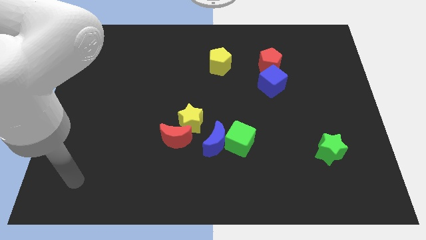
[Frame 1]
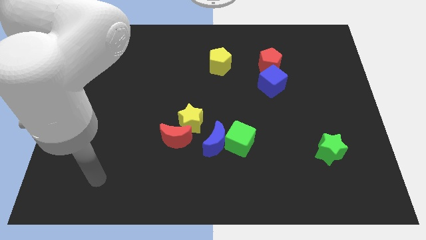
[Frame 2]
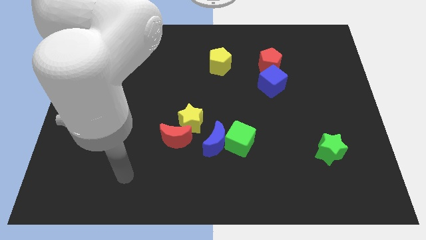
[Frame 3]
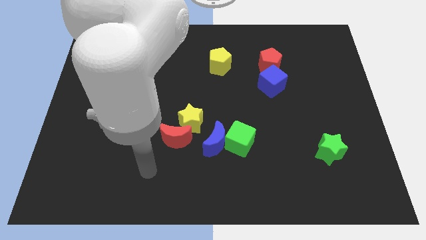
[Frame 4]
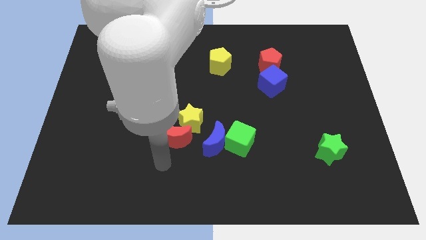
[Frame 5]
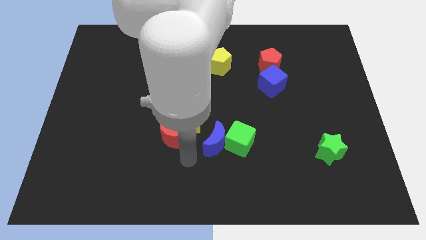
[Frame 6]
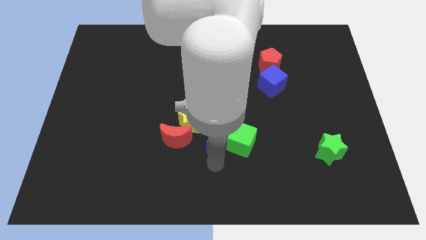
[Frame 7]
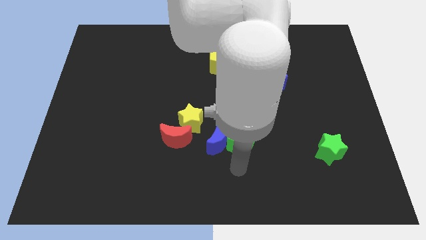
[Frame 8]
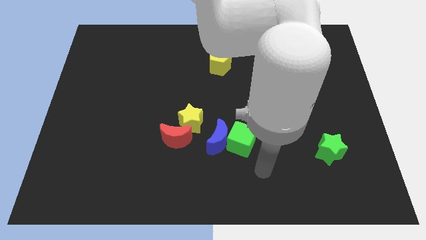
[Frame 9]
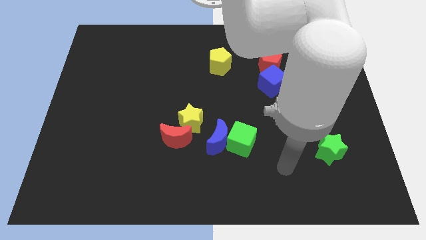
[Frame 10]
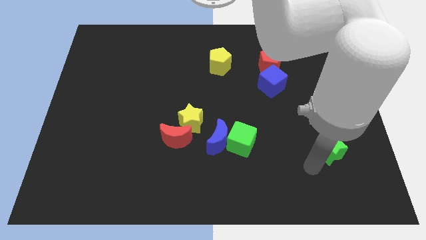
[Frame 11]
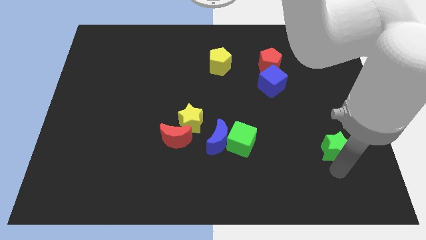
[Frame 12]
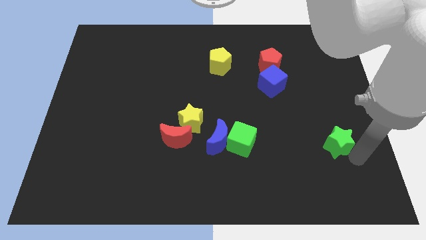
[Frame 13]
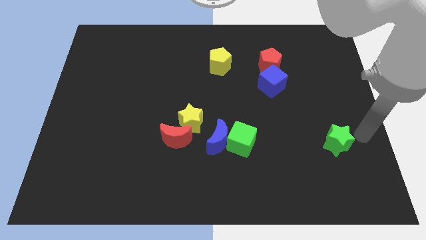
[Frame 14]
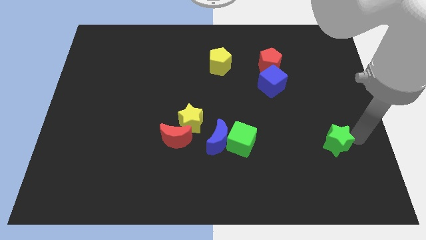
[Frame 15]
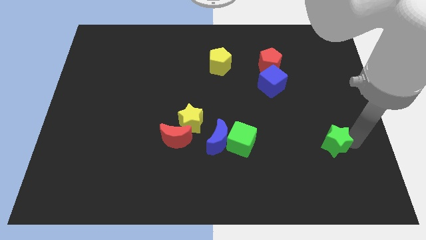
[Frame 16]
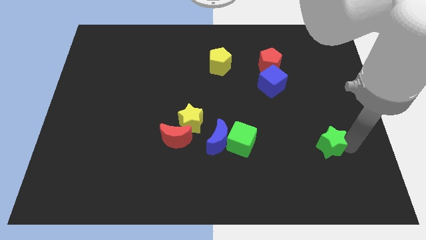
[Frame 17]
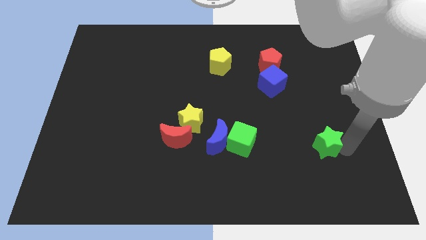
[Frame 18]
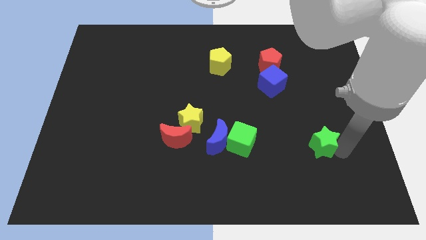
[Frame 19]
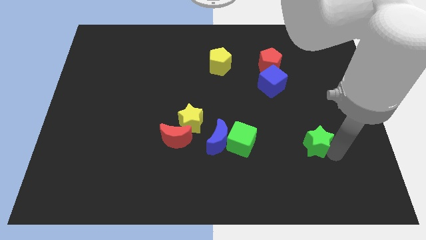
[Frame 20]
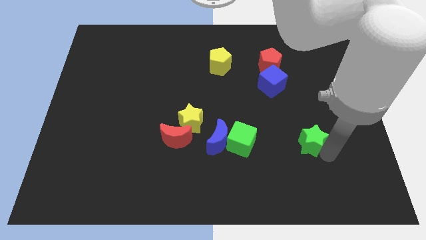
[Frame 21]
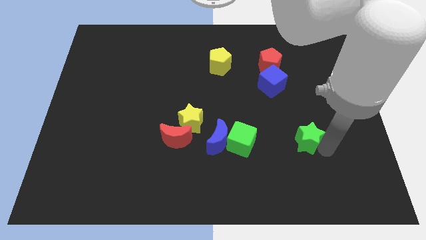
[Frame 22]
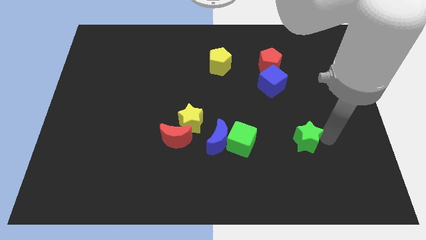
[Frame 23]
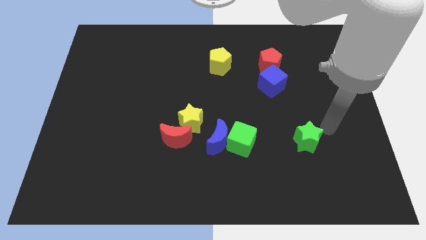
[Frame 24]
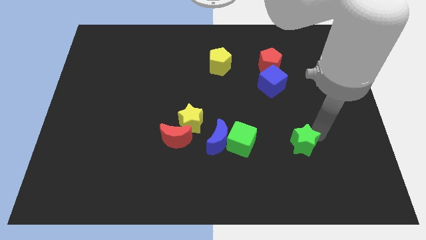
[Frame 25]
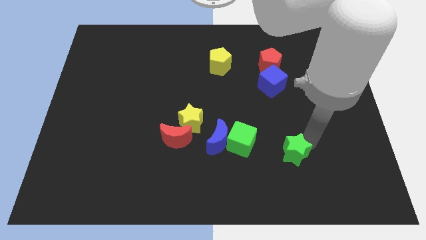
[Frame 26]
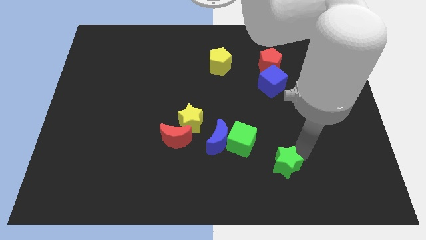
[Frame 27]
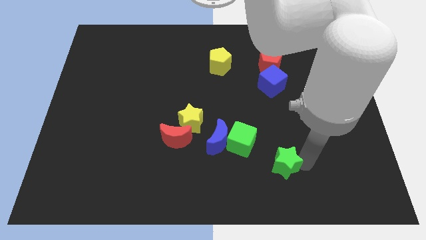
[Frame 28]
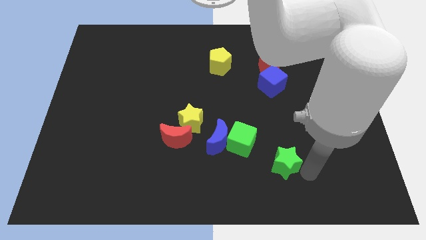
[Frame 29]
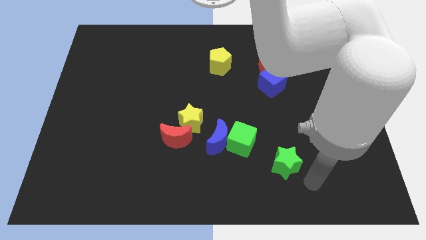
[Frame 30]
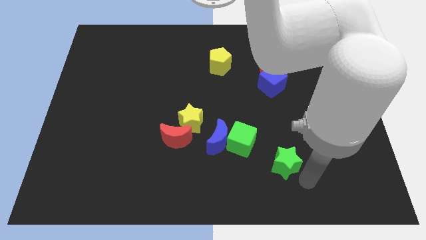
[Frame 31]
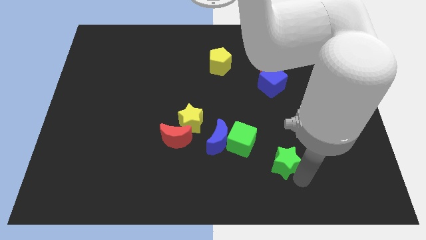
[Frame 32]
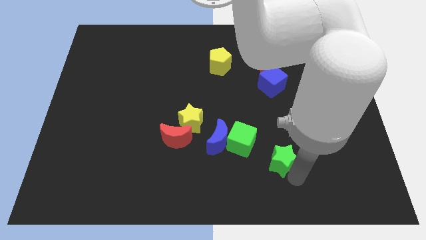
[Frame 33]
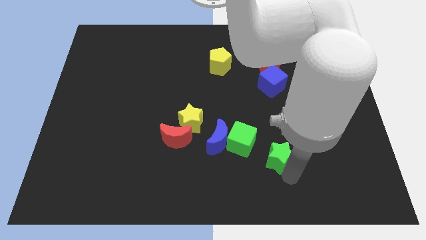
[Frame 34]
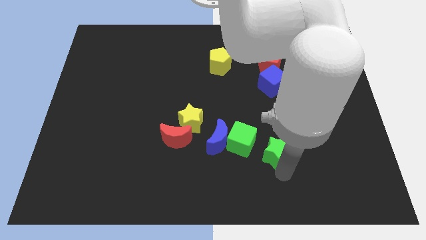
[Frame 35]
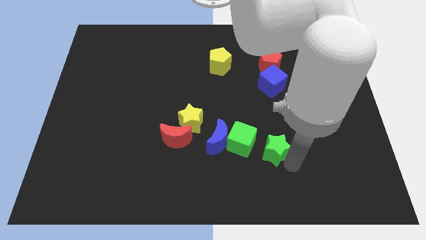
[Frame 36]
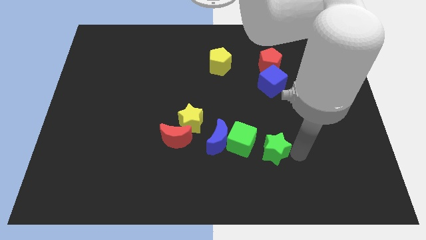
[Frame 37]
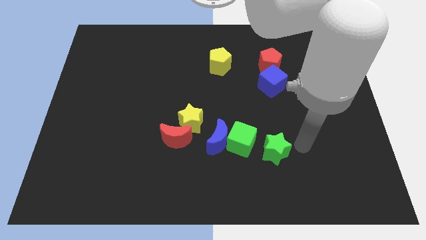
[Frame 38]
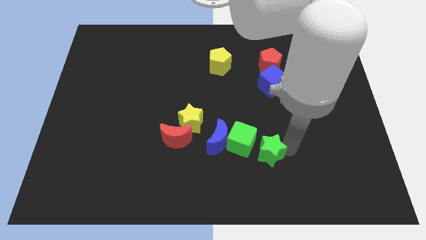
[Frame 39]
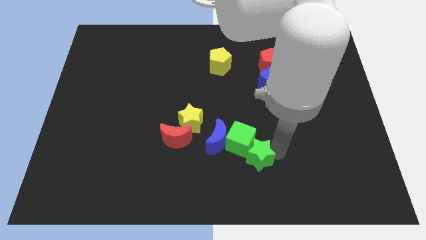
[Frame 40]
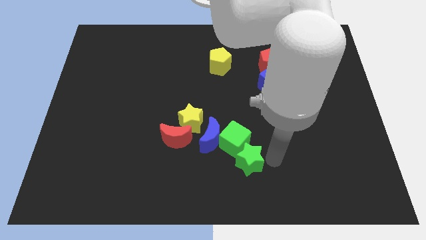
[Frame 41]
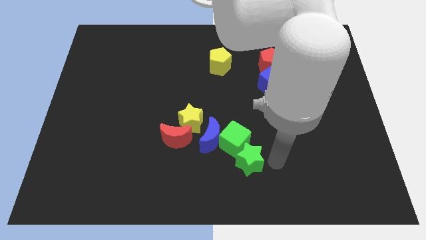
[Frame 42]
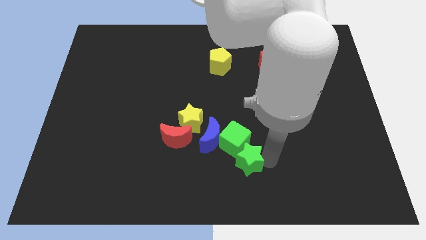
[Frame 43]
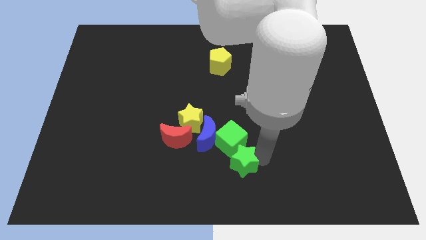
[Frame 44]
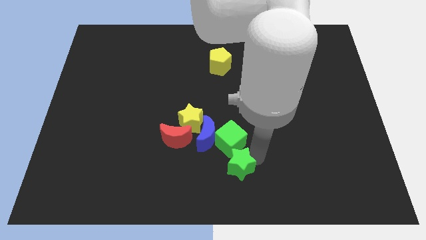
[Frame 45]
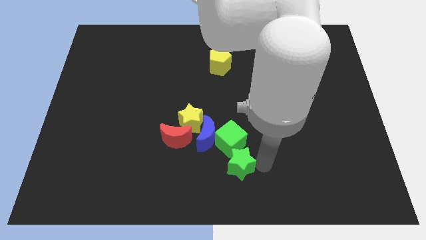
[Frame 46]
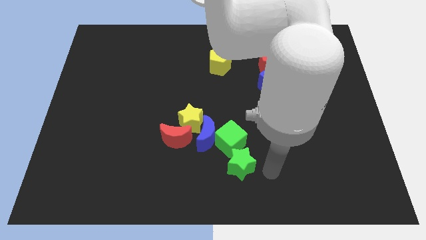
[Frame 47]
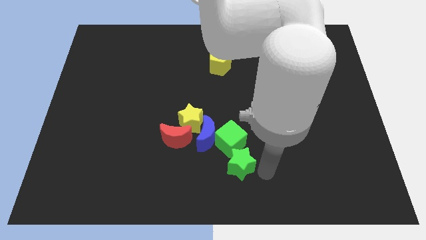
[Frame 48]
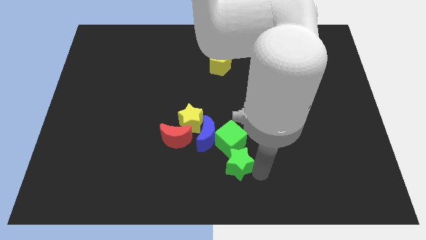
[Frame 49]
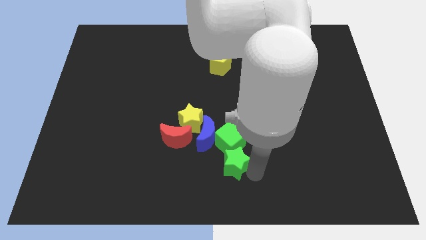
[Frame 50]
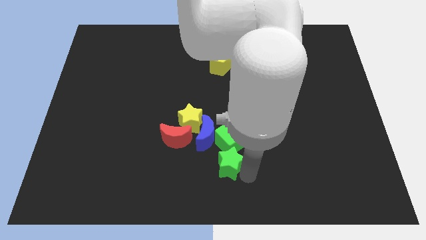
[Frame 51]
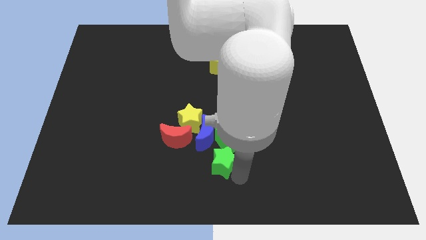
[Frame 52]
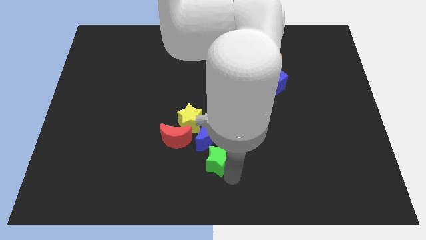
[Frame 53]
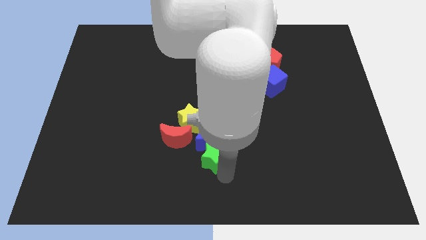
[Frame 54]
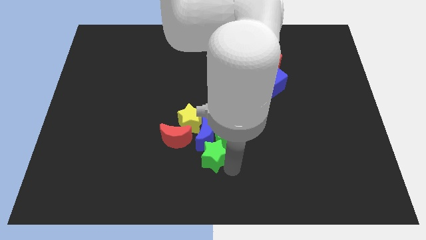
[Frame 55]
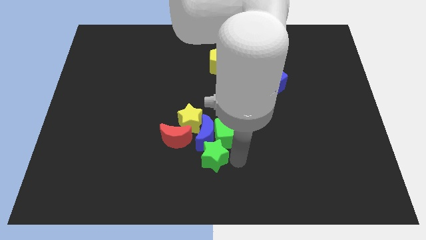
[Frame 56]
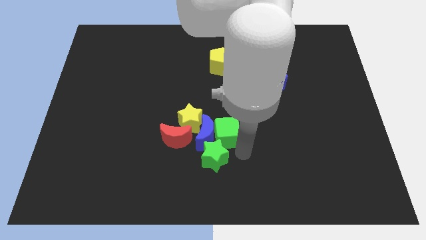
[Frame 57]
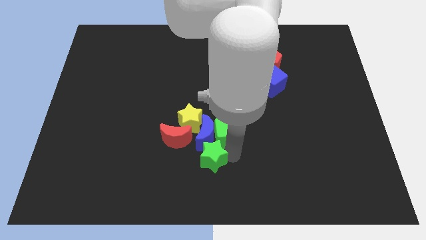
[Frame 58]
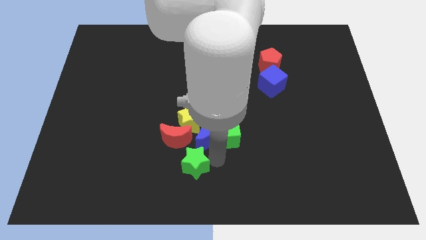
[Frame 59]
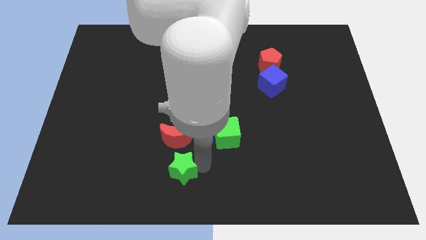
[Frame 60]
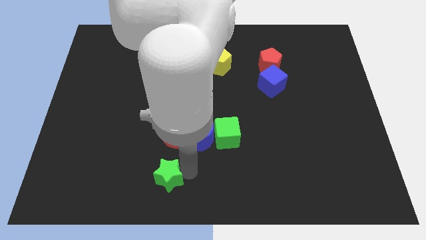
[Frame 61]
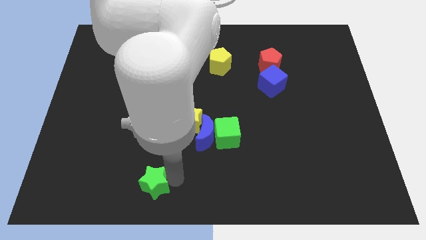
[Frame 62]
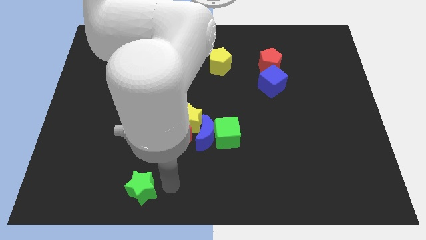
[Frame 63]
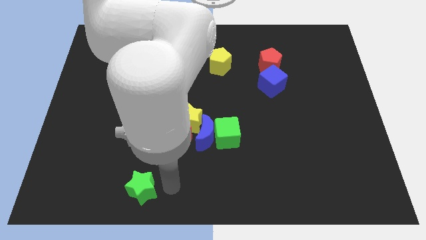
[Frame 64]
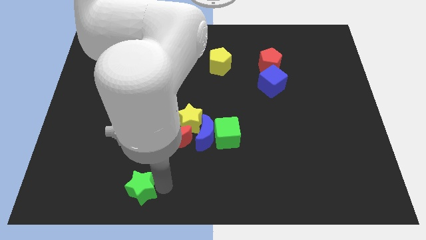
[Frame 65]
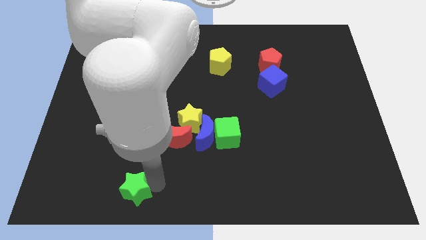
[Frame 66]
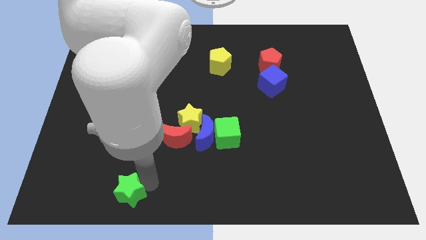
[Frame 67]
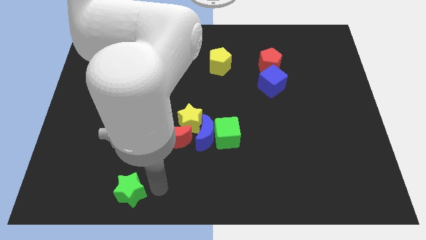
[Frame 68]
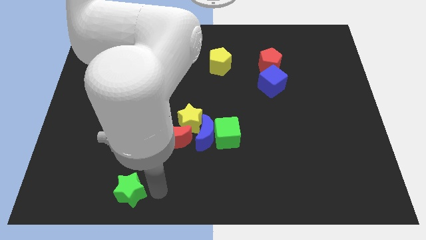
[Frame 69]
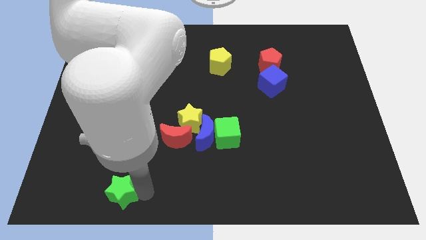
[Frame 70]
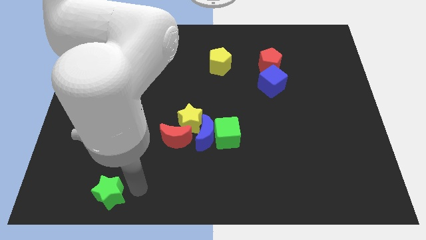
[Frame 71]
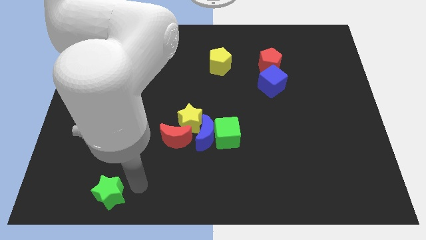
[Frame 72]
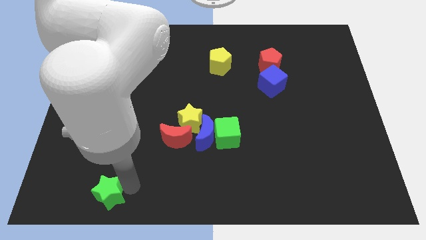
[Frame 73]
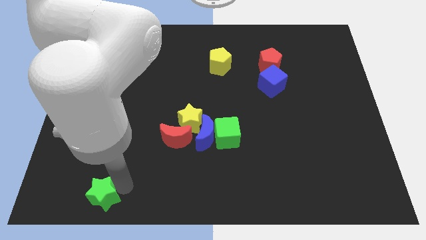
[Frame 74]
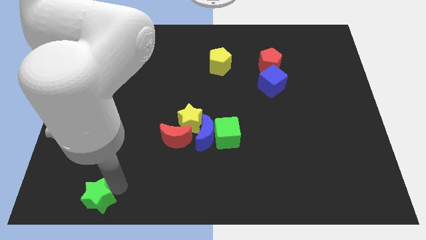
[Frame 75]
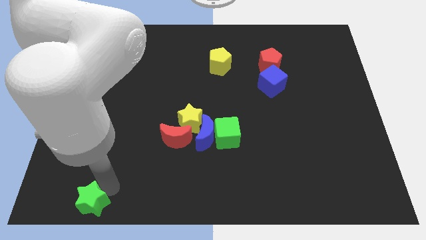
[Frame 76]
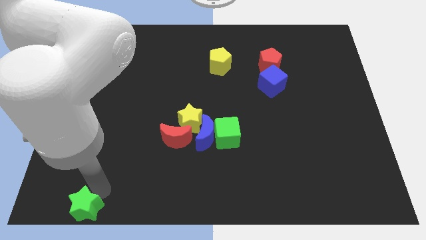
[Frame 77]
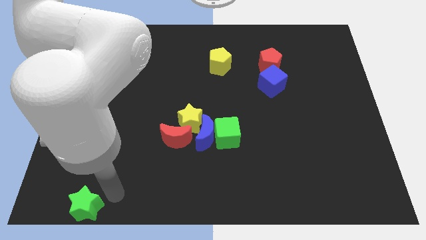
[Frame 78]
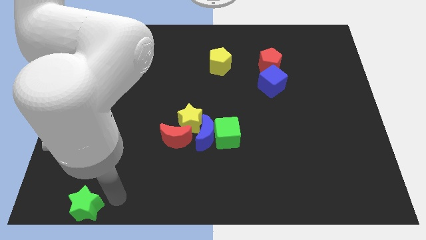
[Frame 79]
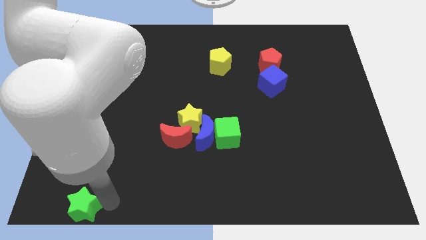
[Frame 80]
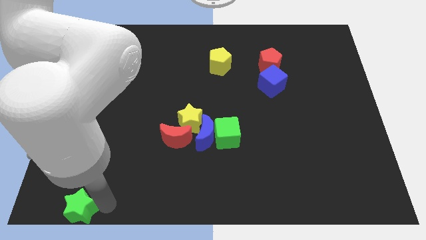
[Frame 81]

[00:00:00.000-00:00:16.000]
move the green star to the bottom left of the board
